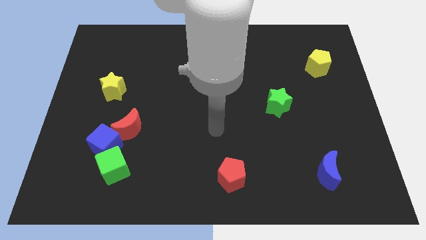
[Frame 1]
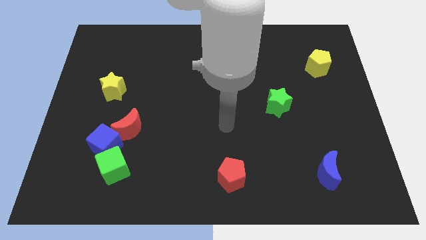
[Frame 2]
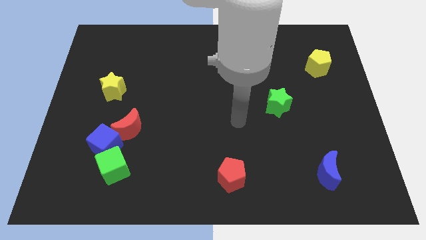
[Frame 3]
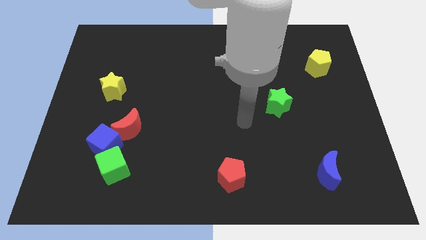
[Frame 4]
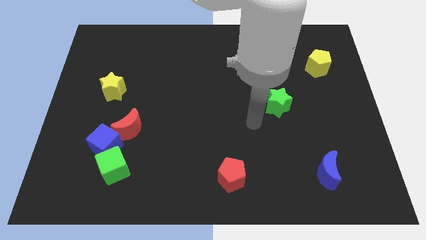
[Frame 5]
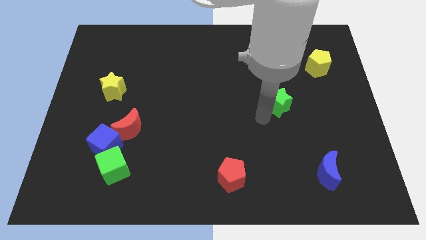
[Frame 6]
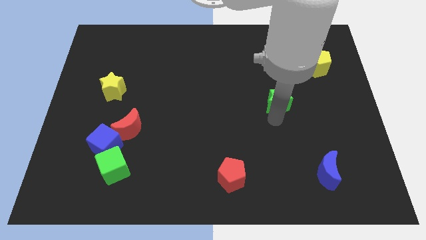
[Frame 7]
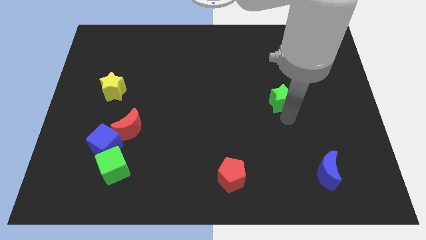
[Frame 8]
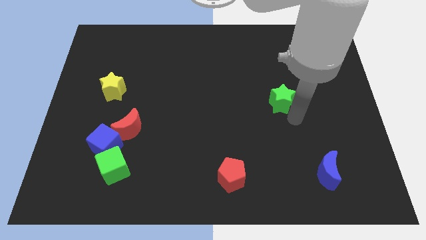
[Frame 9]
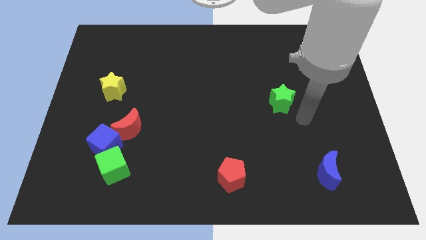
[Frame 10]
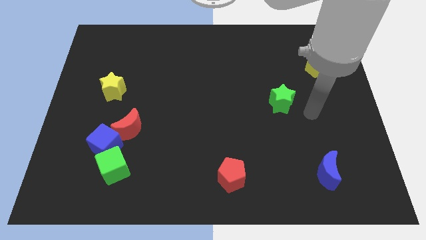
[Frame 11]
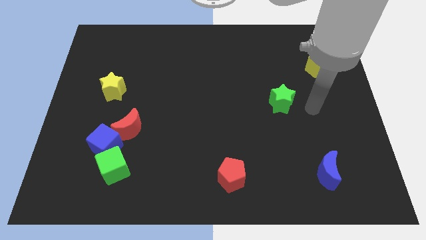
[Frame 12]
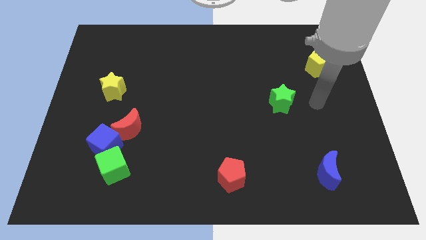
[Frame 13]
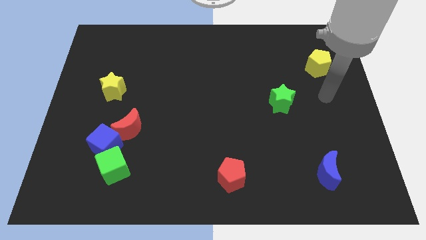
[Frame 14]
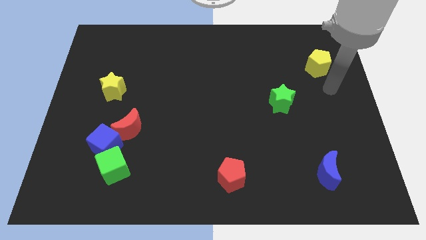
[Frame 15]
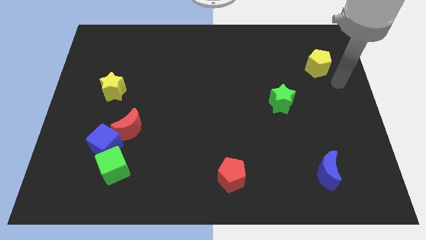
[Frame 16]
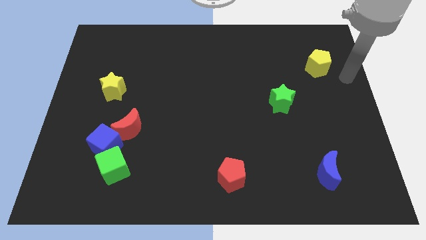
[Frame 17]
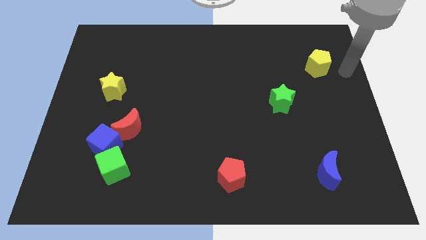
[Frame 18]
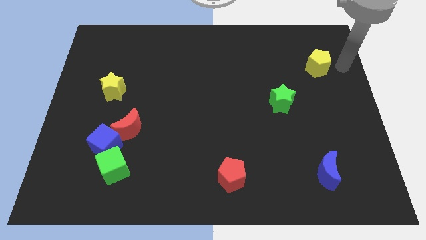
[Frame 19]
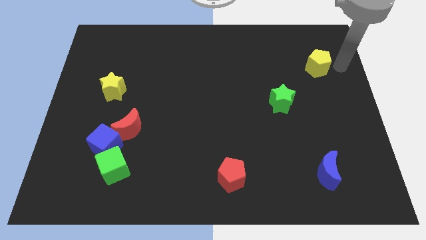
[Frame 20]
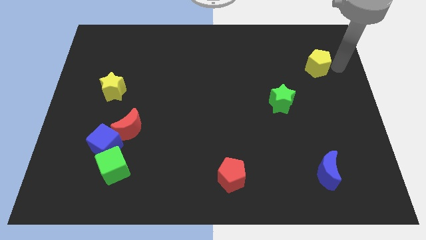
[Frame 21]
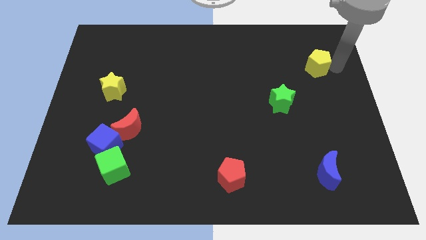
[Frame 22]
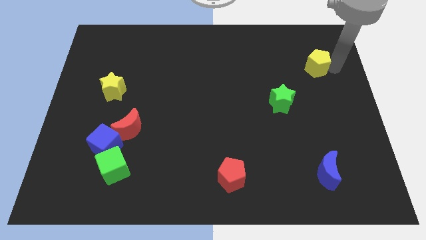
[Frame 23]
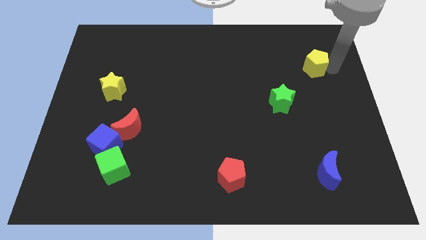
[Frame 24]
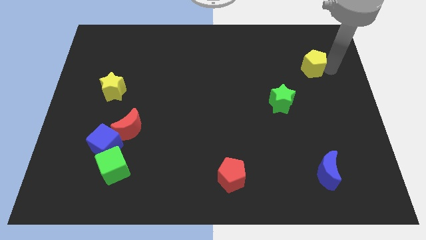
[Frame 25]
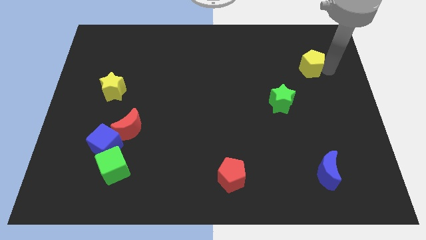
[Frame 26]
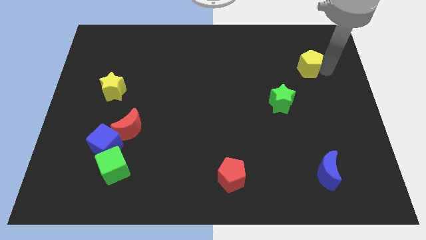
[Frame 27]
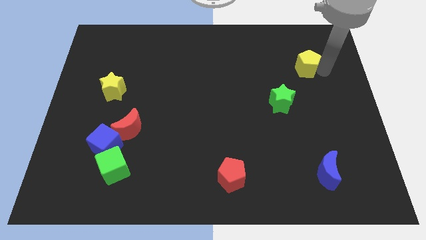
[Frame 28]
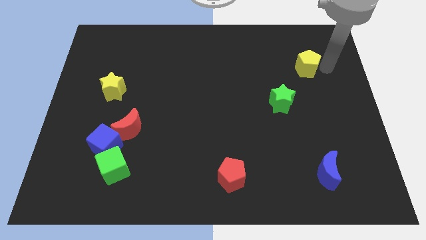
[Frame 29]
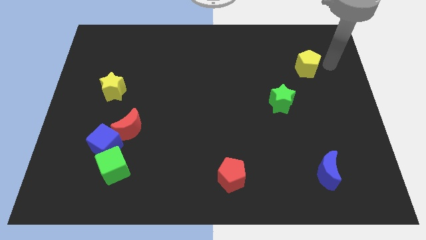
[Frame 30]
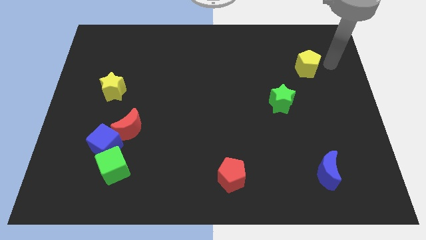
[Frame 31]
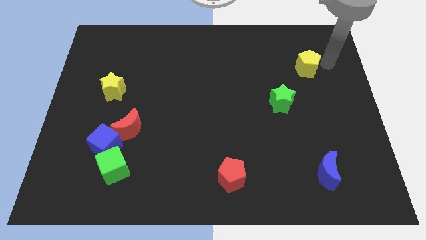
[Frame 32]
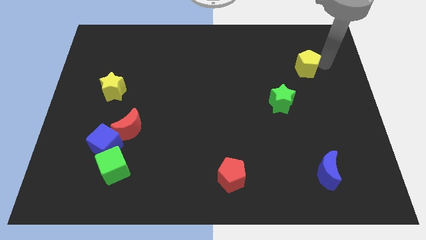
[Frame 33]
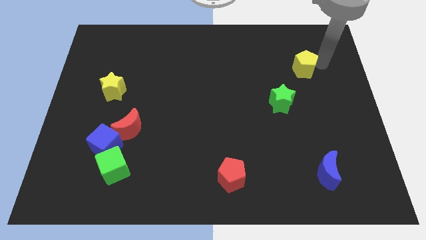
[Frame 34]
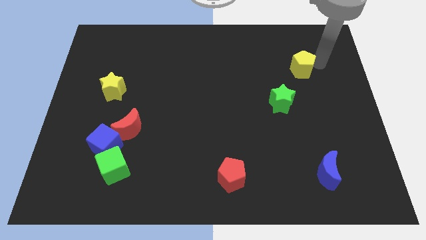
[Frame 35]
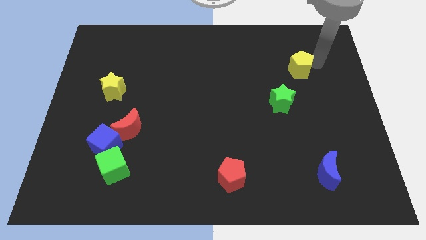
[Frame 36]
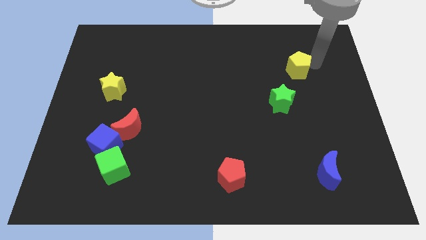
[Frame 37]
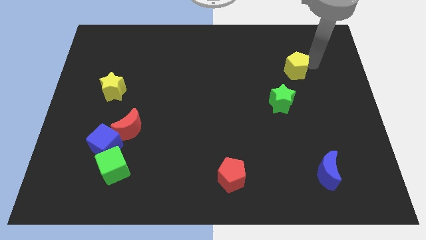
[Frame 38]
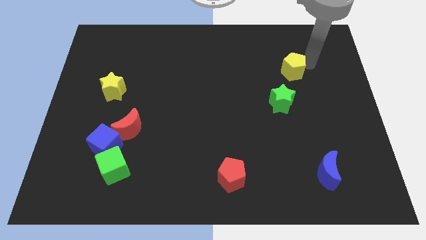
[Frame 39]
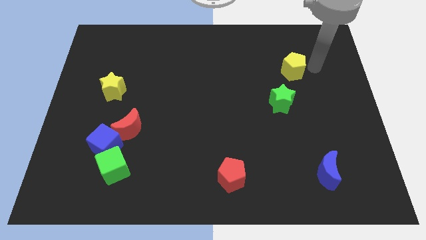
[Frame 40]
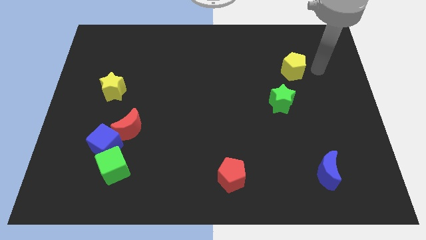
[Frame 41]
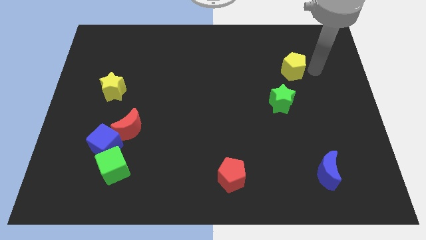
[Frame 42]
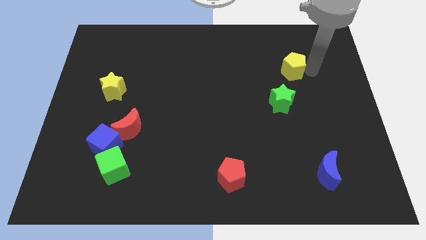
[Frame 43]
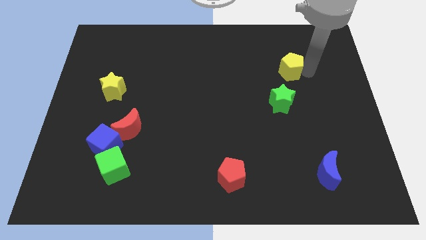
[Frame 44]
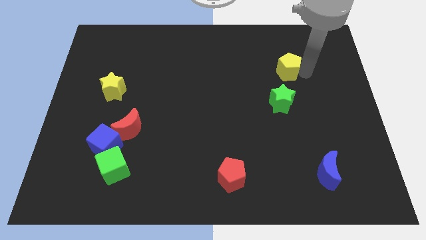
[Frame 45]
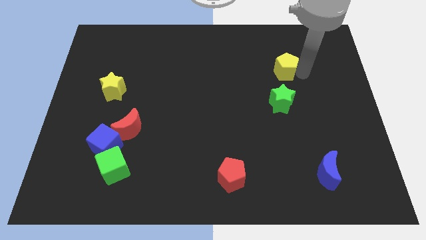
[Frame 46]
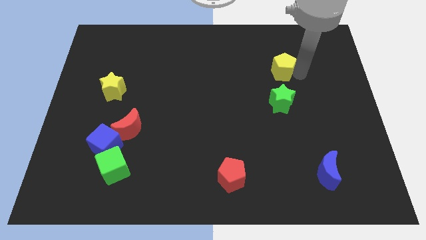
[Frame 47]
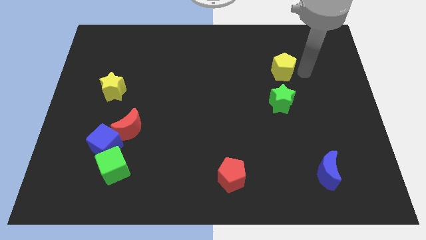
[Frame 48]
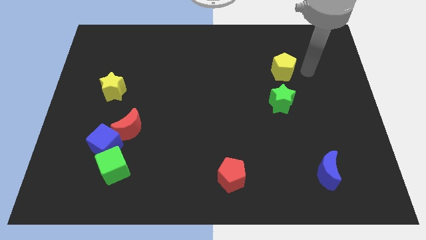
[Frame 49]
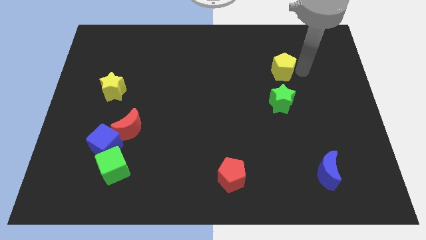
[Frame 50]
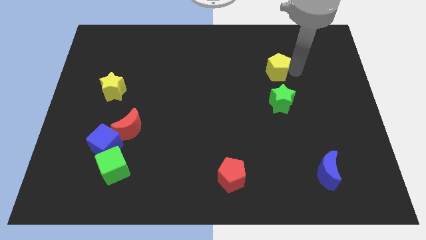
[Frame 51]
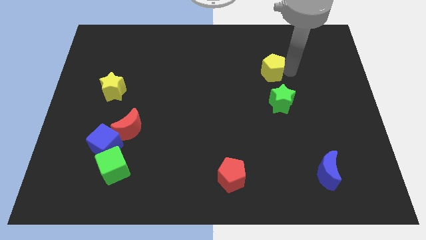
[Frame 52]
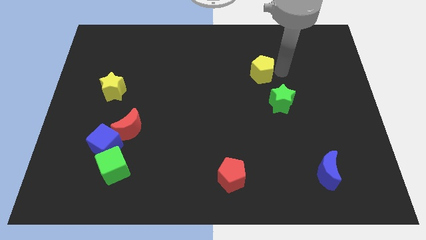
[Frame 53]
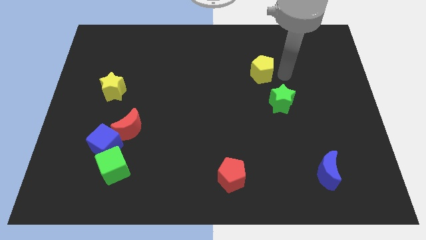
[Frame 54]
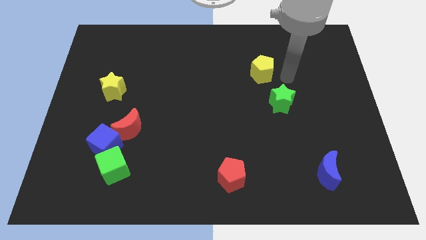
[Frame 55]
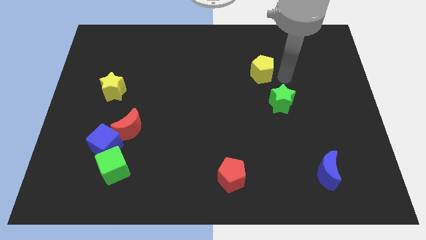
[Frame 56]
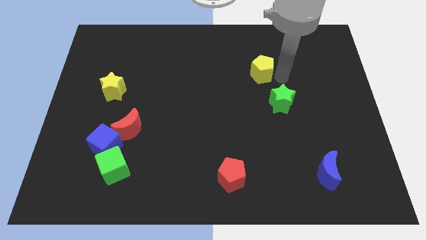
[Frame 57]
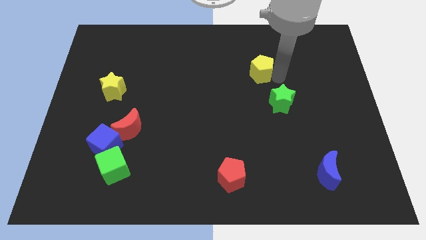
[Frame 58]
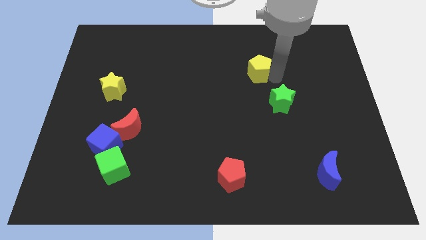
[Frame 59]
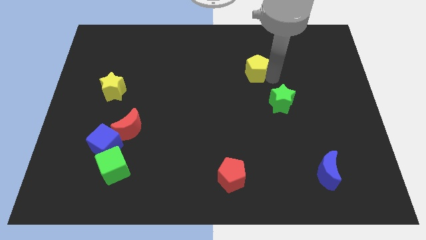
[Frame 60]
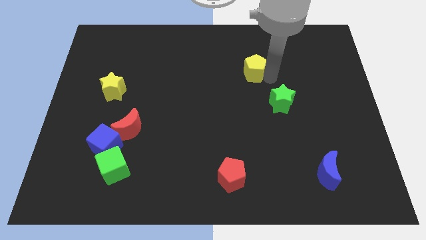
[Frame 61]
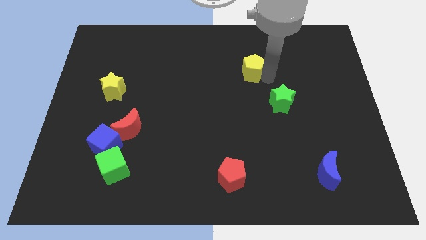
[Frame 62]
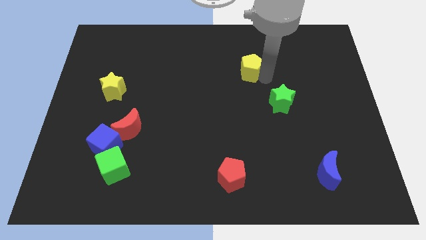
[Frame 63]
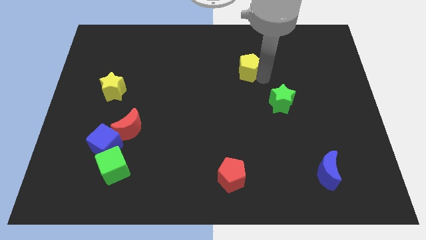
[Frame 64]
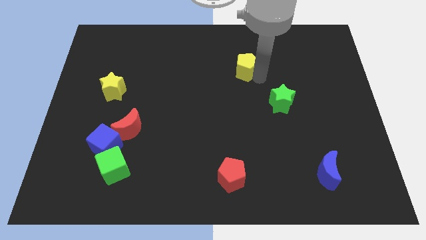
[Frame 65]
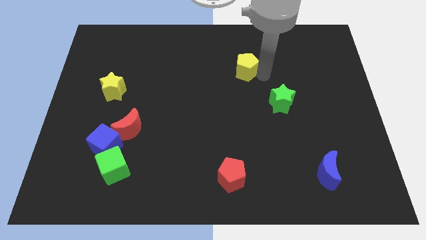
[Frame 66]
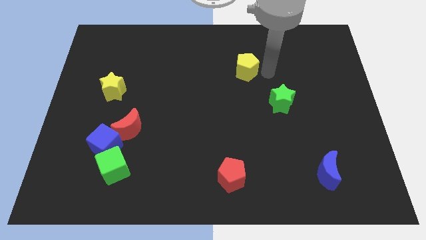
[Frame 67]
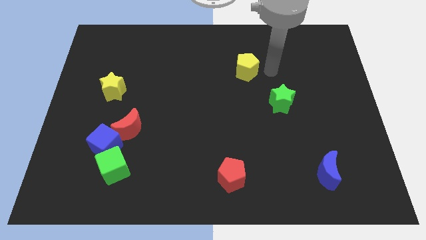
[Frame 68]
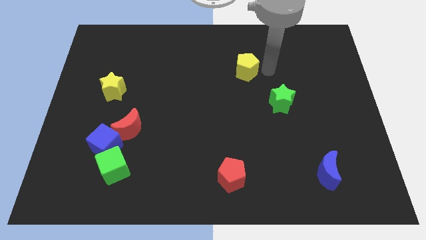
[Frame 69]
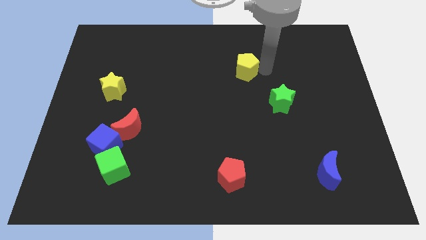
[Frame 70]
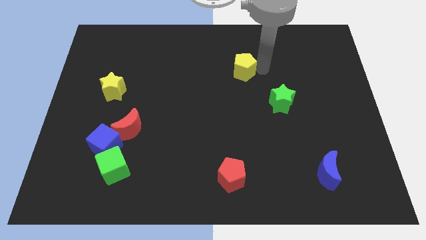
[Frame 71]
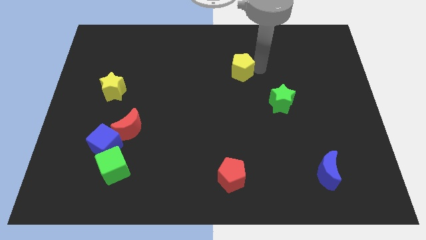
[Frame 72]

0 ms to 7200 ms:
slide the yellow pentagon to the left

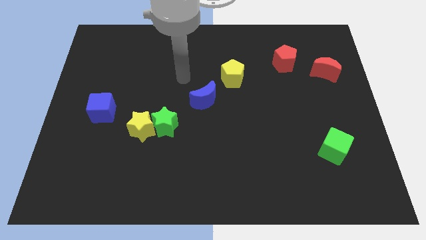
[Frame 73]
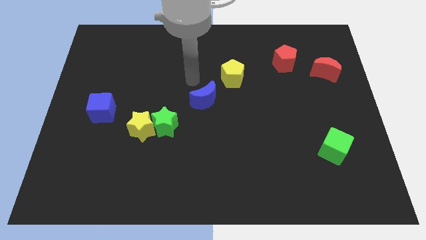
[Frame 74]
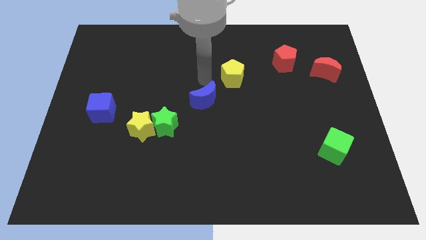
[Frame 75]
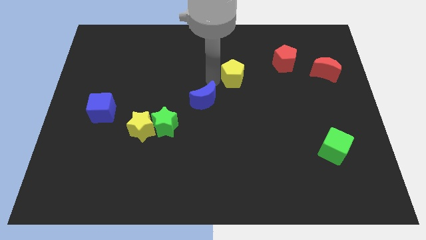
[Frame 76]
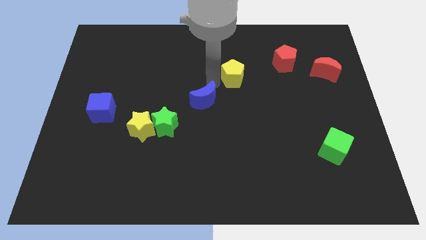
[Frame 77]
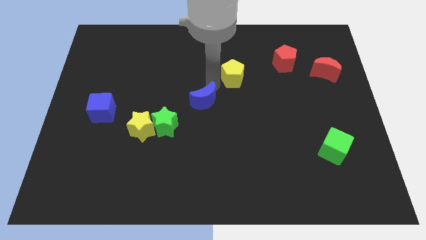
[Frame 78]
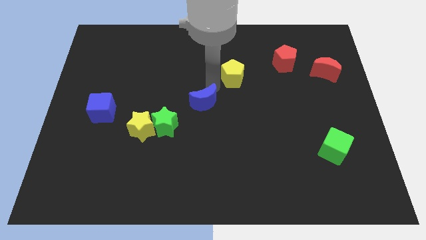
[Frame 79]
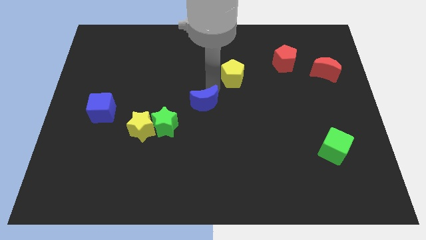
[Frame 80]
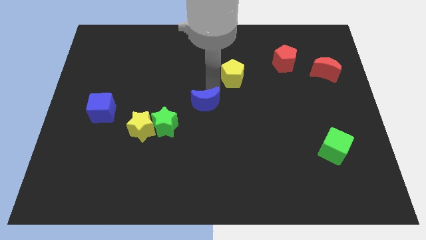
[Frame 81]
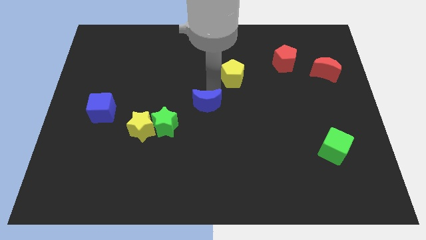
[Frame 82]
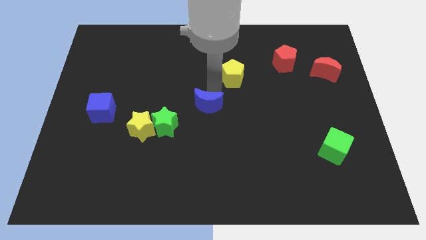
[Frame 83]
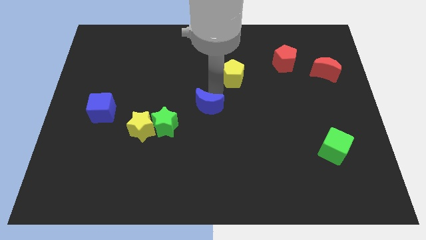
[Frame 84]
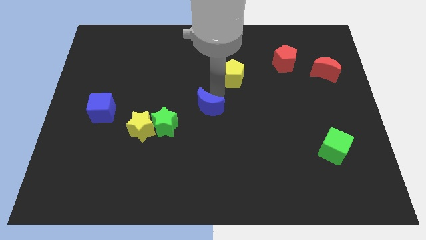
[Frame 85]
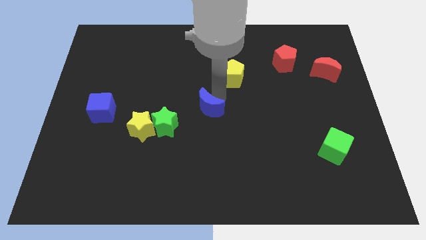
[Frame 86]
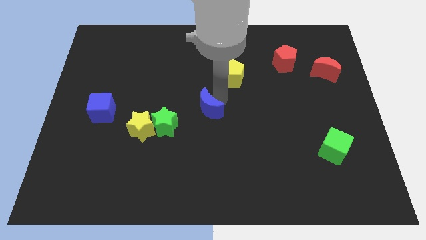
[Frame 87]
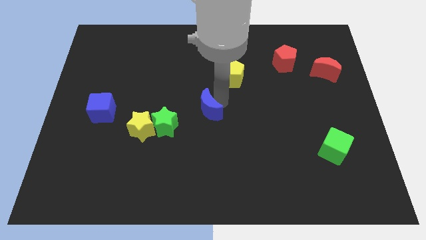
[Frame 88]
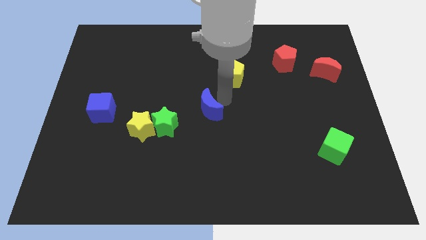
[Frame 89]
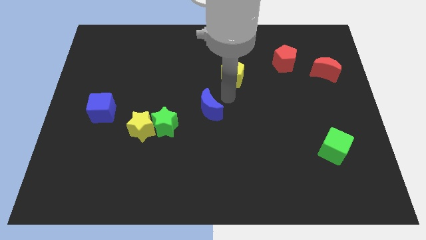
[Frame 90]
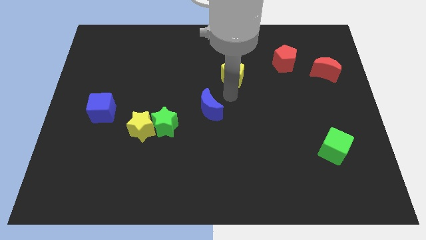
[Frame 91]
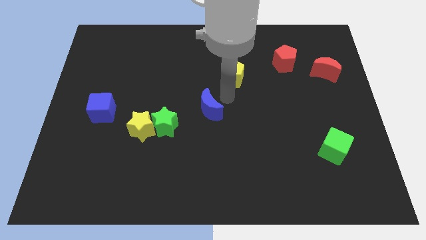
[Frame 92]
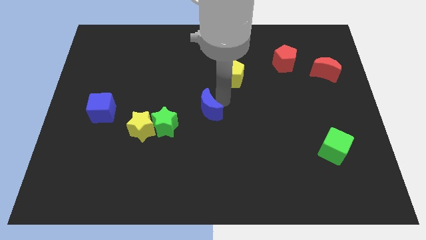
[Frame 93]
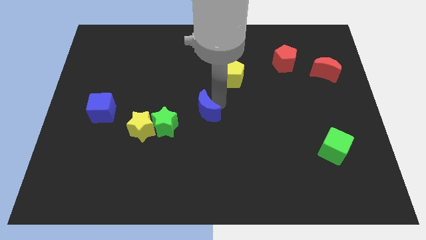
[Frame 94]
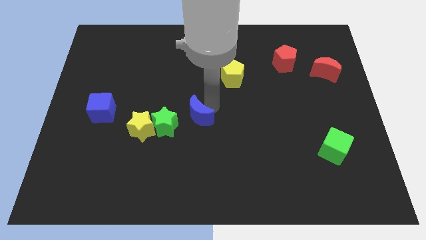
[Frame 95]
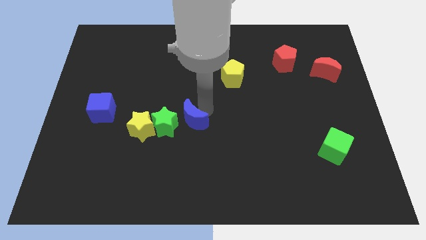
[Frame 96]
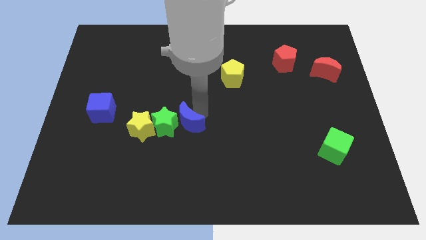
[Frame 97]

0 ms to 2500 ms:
move the blue moon a bit diagonally downwards and to the left
